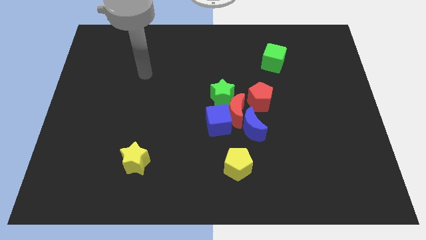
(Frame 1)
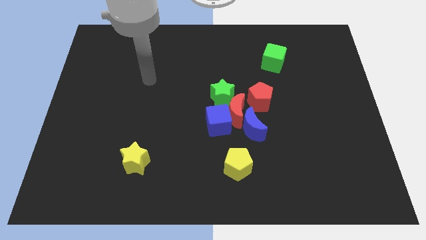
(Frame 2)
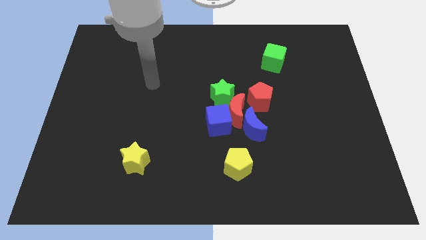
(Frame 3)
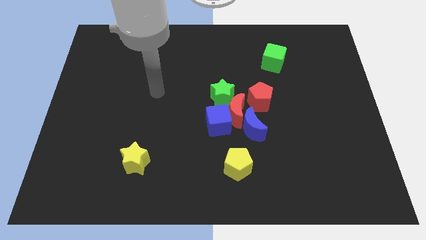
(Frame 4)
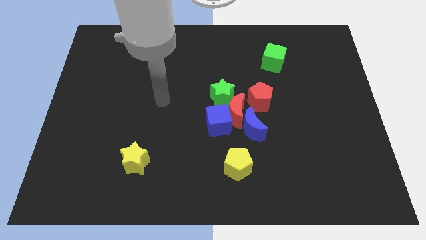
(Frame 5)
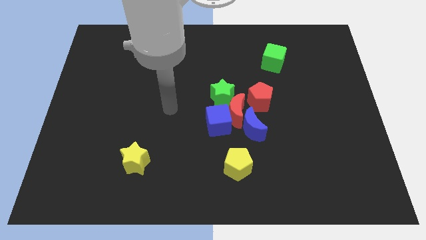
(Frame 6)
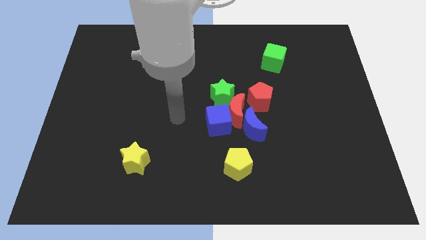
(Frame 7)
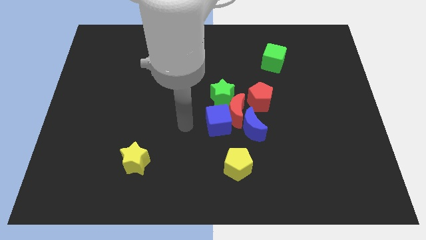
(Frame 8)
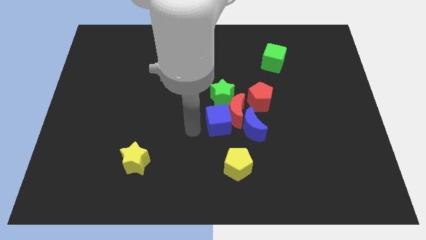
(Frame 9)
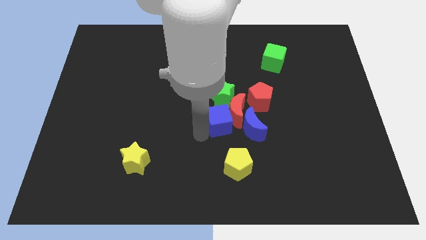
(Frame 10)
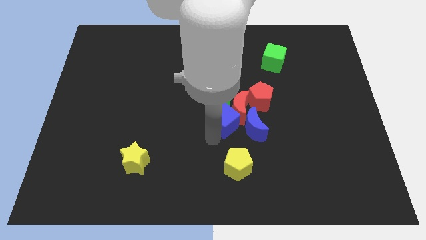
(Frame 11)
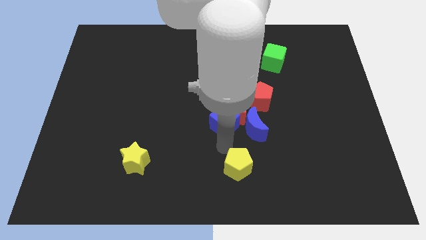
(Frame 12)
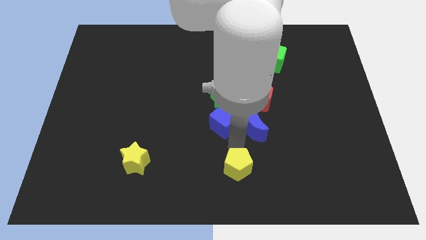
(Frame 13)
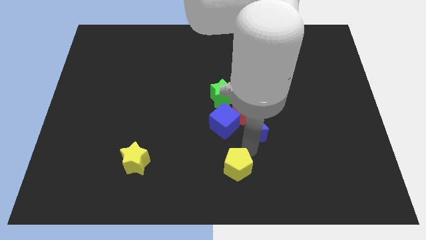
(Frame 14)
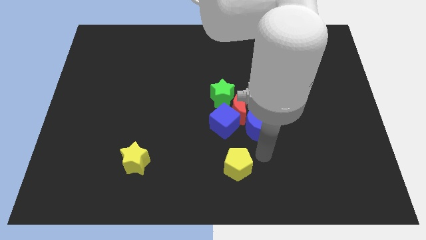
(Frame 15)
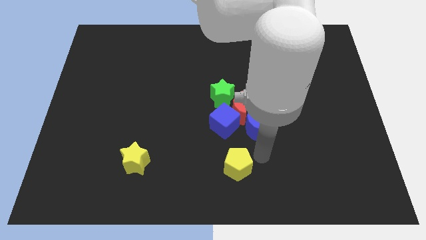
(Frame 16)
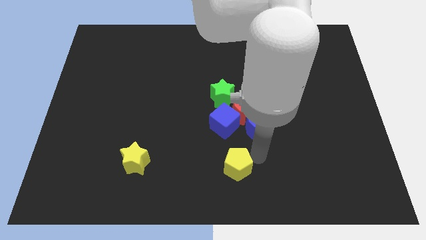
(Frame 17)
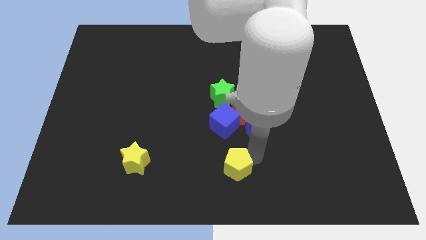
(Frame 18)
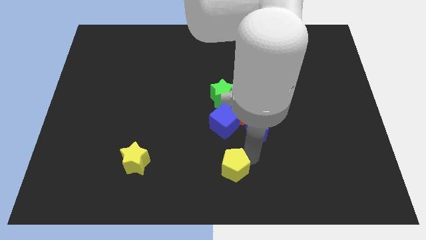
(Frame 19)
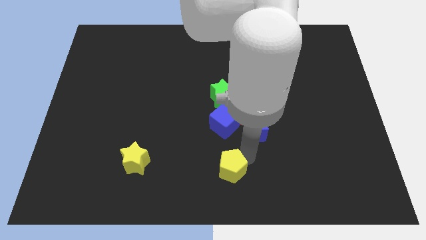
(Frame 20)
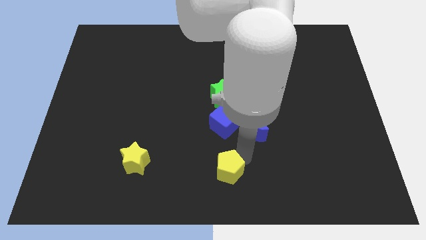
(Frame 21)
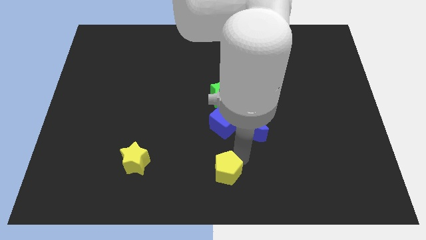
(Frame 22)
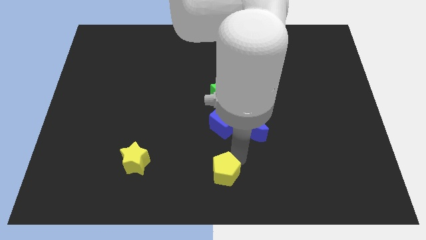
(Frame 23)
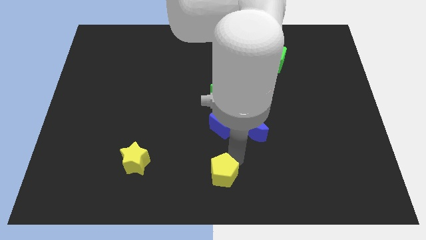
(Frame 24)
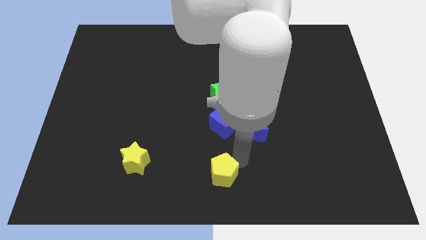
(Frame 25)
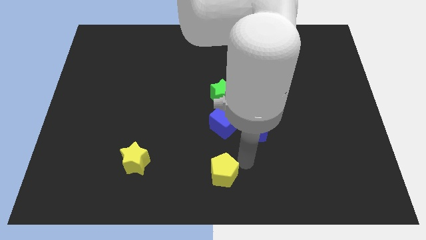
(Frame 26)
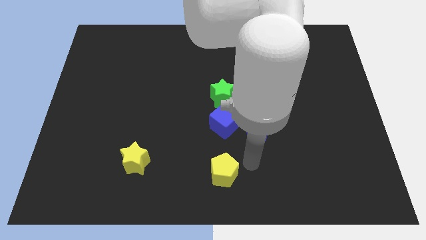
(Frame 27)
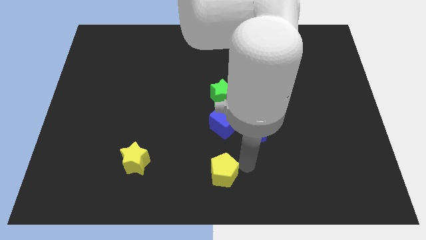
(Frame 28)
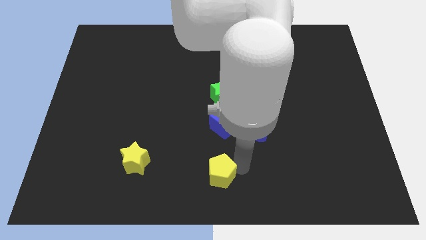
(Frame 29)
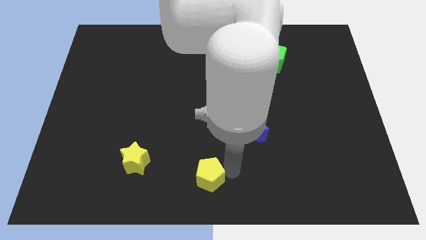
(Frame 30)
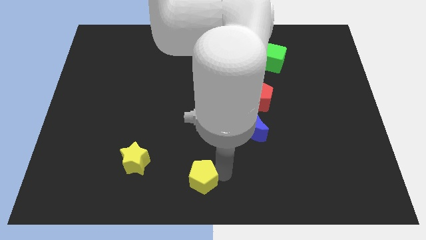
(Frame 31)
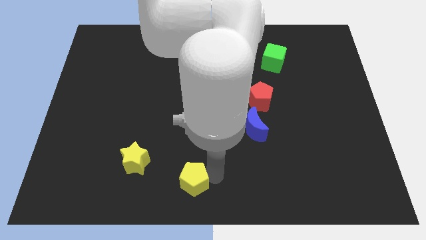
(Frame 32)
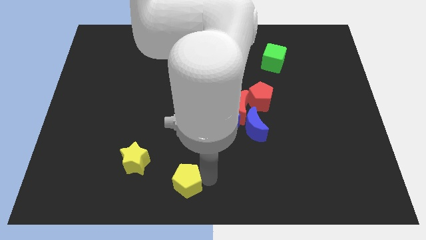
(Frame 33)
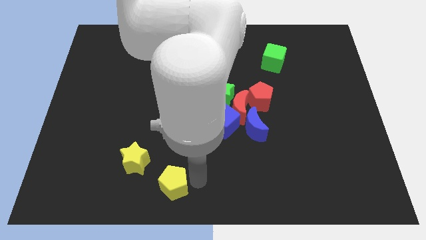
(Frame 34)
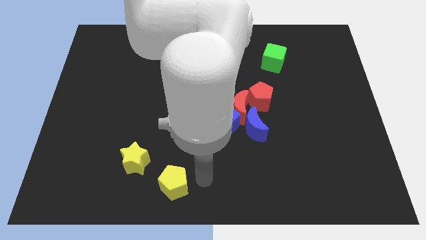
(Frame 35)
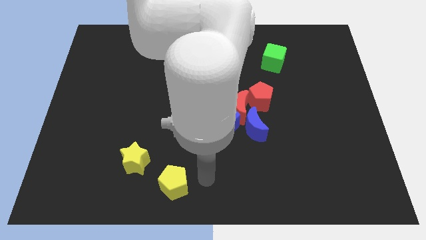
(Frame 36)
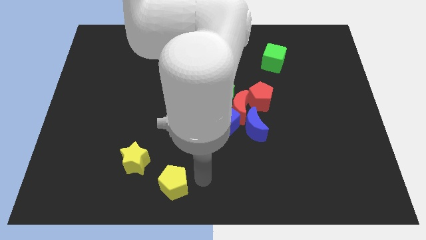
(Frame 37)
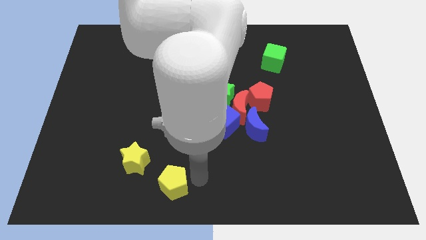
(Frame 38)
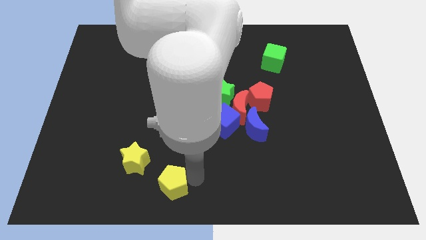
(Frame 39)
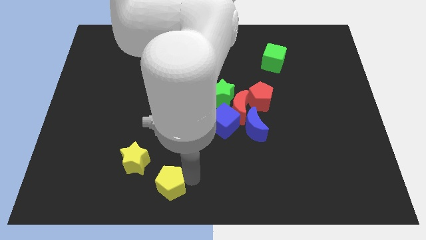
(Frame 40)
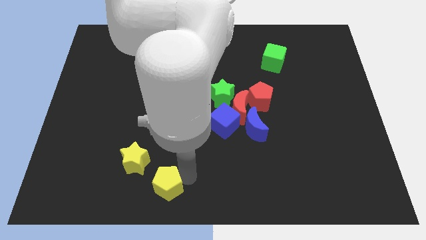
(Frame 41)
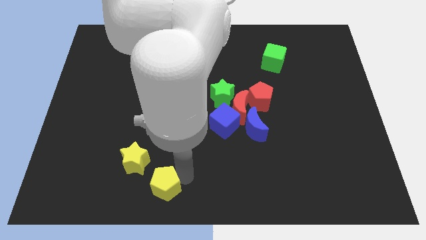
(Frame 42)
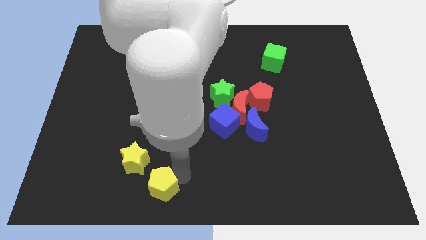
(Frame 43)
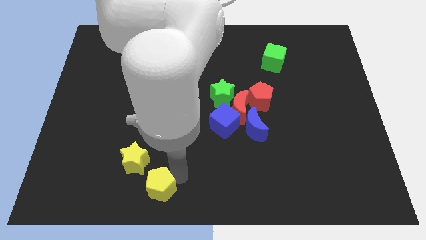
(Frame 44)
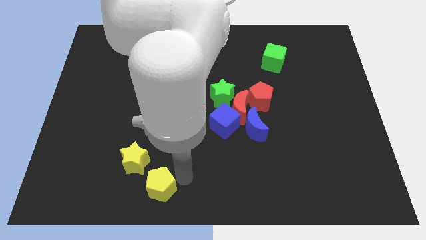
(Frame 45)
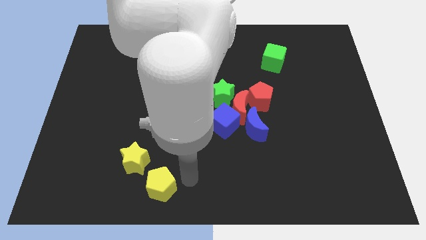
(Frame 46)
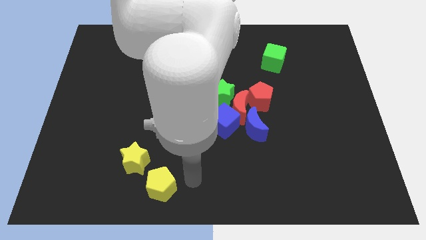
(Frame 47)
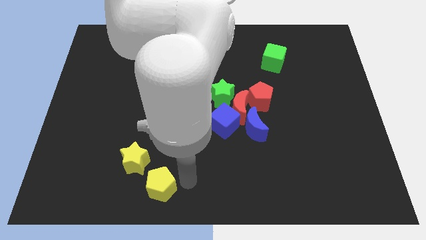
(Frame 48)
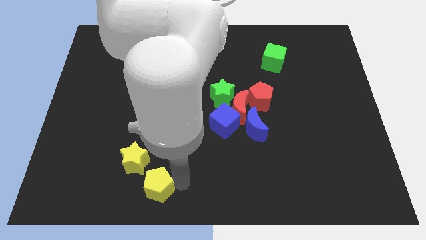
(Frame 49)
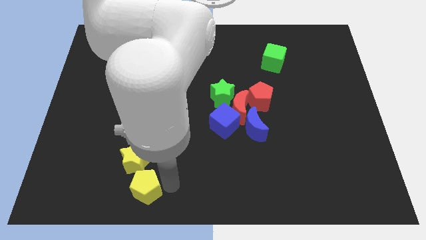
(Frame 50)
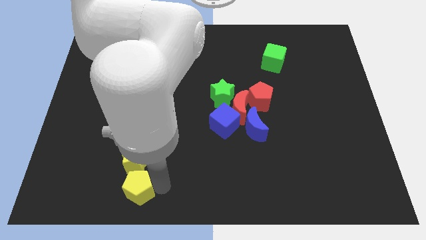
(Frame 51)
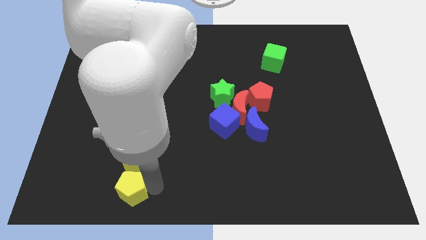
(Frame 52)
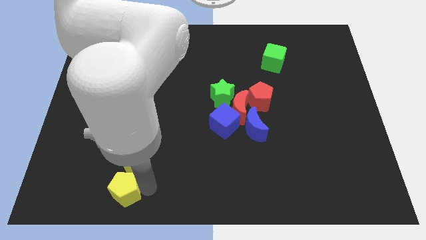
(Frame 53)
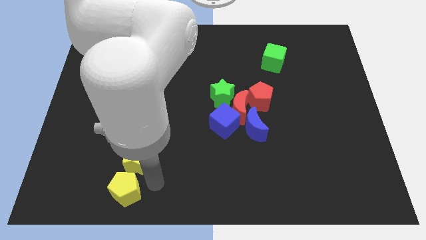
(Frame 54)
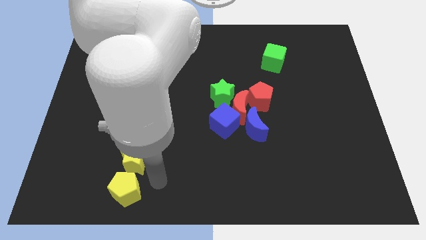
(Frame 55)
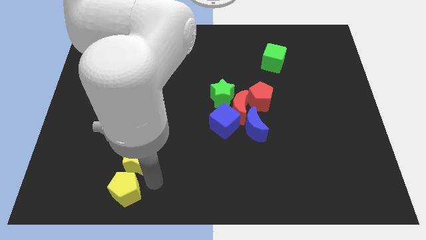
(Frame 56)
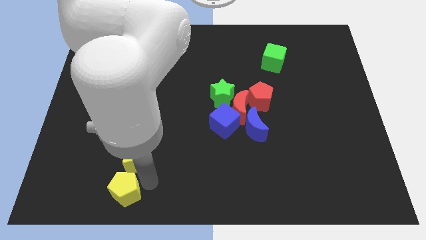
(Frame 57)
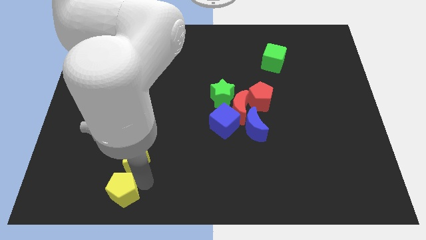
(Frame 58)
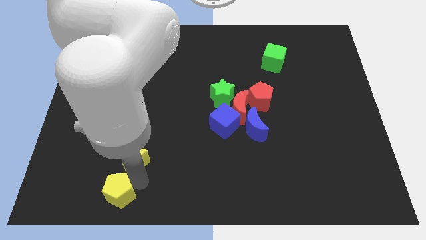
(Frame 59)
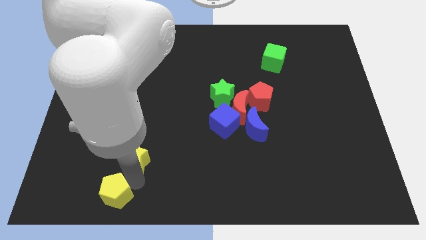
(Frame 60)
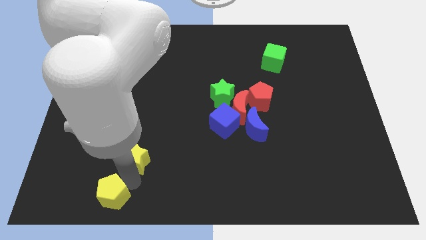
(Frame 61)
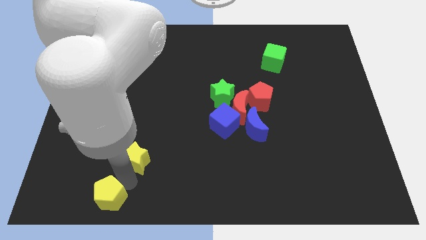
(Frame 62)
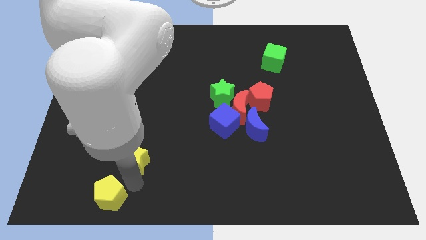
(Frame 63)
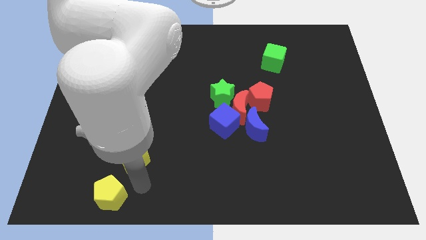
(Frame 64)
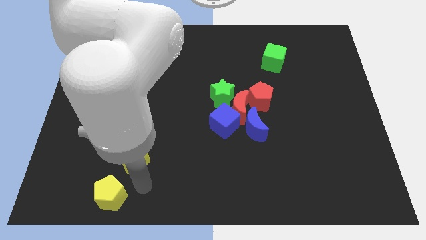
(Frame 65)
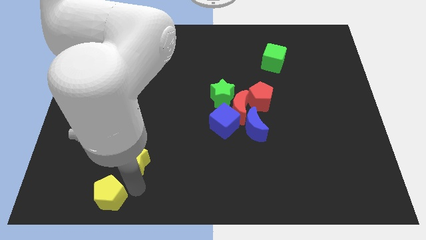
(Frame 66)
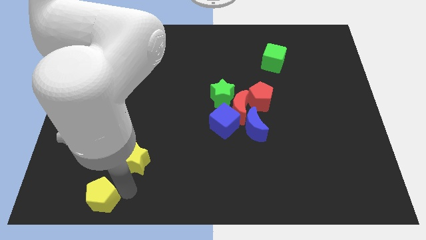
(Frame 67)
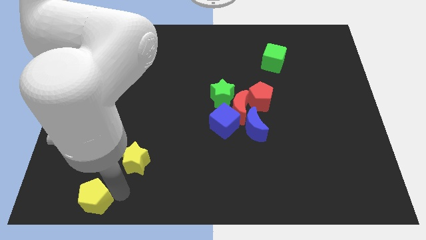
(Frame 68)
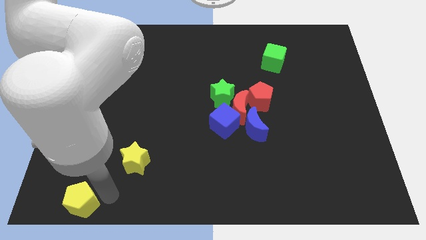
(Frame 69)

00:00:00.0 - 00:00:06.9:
slide the yellow pentagon to the bottom left corner

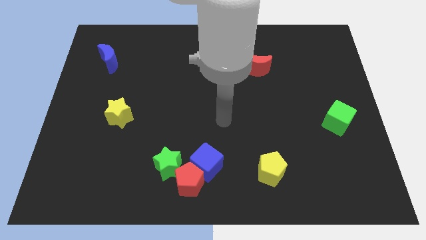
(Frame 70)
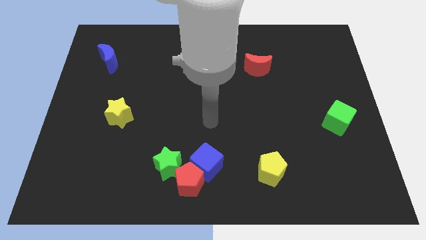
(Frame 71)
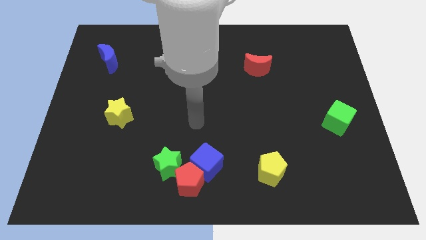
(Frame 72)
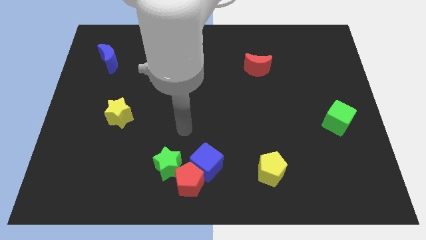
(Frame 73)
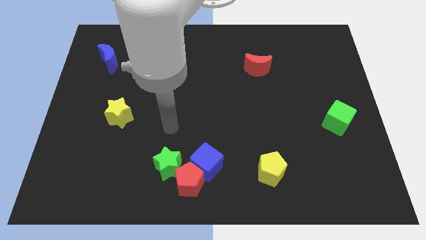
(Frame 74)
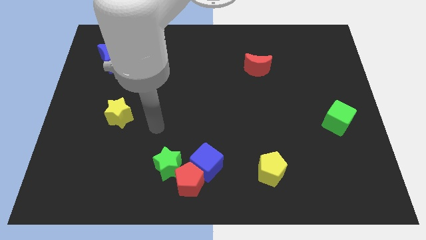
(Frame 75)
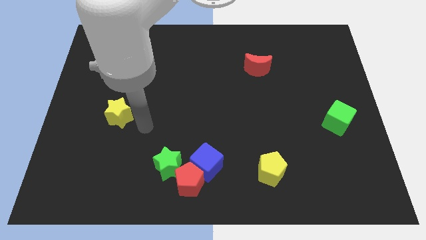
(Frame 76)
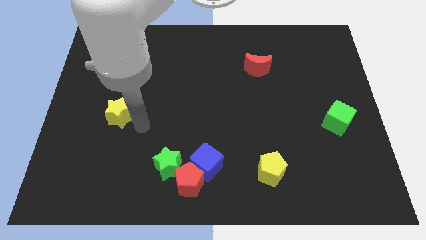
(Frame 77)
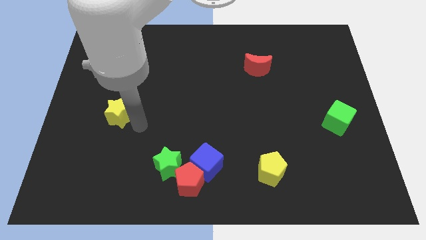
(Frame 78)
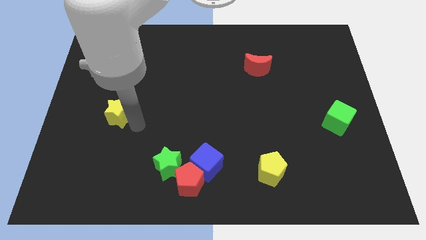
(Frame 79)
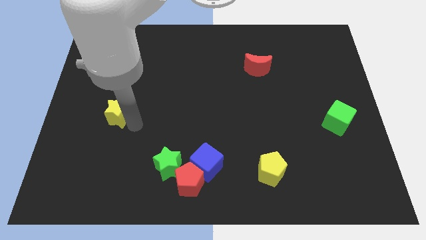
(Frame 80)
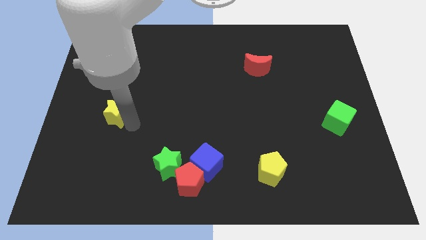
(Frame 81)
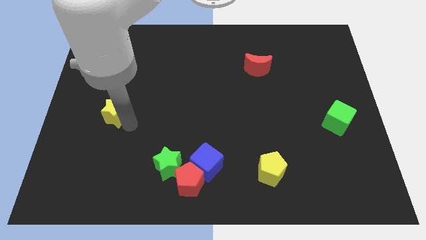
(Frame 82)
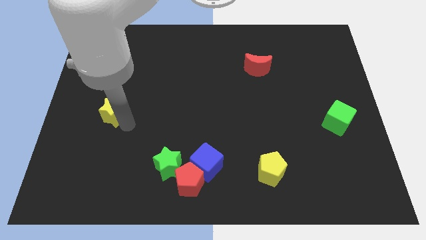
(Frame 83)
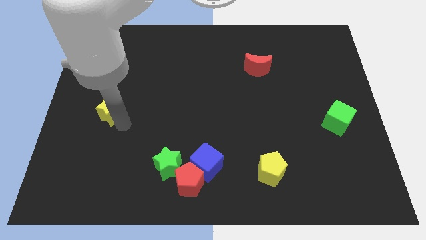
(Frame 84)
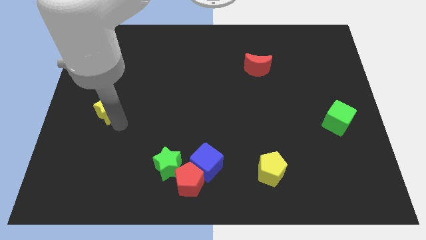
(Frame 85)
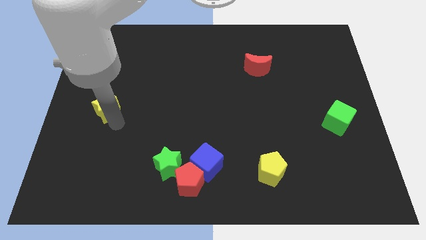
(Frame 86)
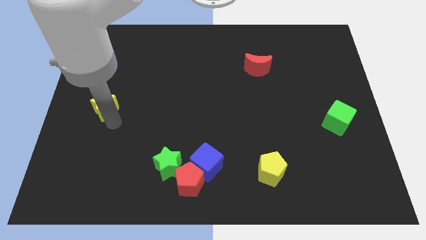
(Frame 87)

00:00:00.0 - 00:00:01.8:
put the yellow star to the center left
